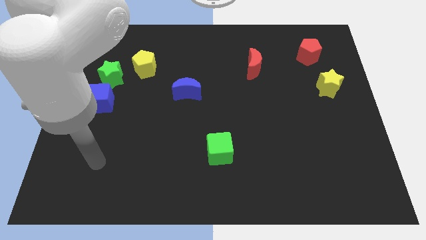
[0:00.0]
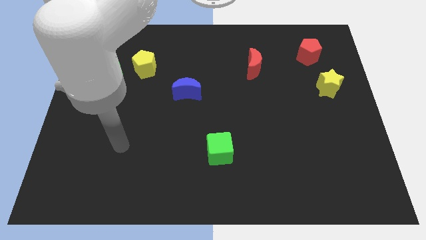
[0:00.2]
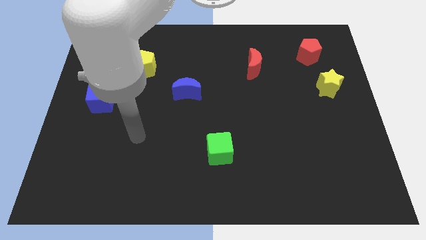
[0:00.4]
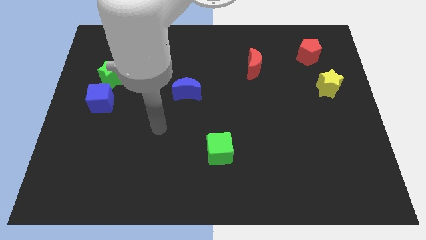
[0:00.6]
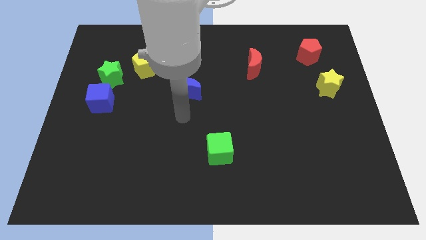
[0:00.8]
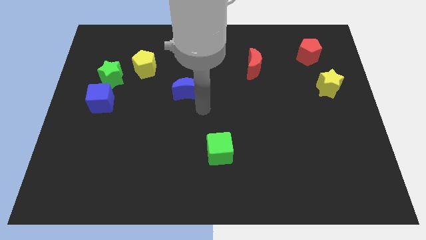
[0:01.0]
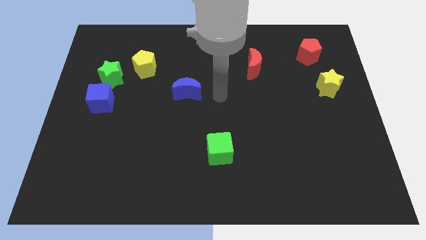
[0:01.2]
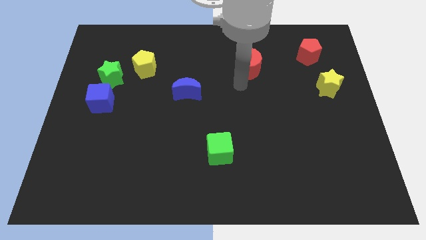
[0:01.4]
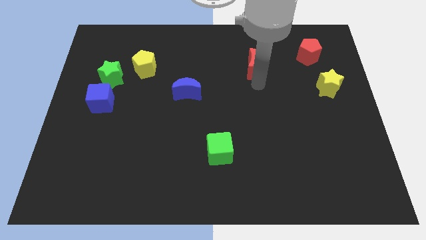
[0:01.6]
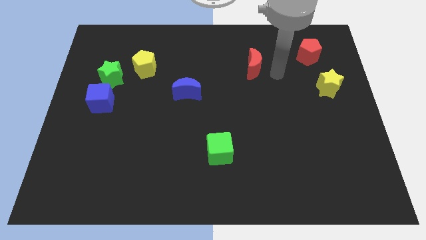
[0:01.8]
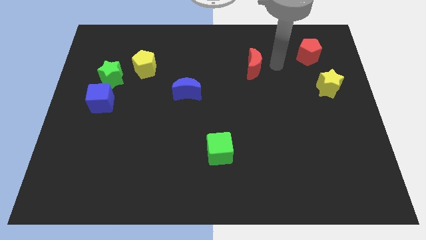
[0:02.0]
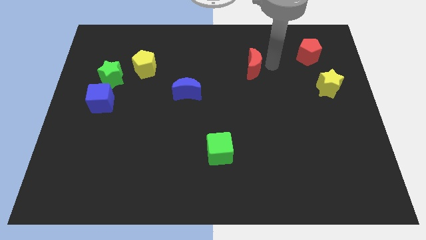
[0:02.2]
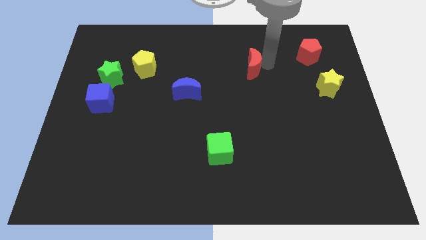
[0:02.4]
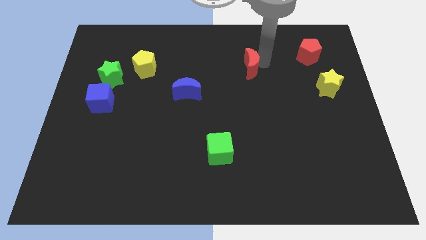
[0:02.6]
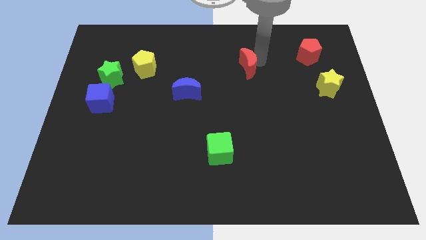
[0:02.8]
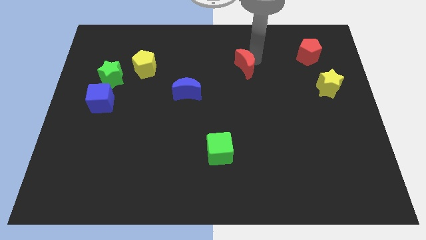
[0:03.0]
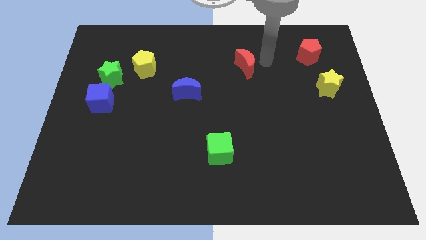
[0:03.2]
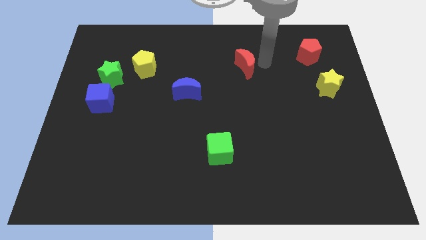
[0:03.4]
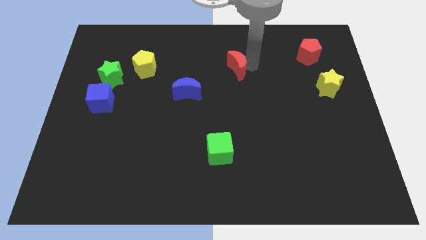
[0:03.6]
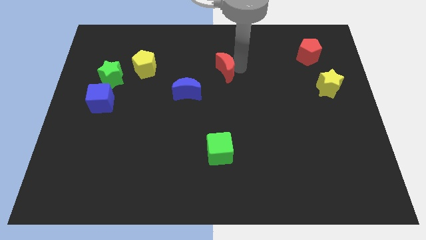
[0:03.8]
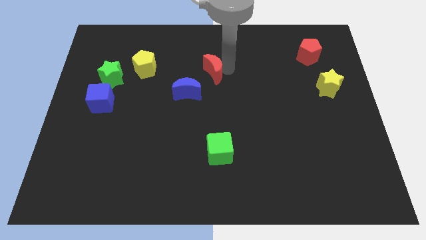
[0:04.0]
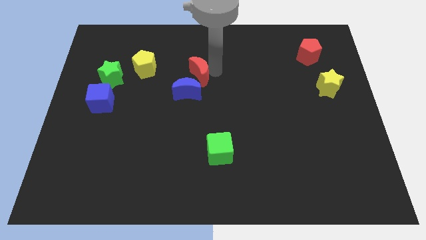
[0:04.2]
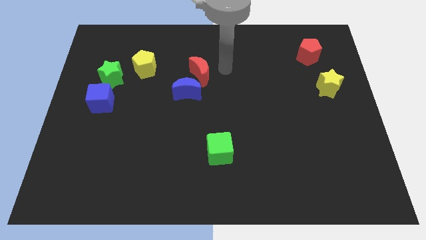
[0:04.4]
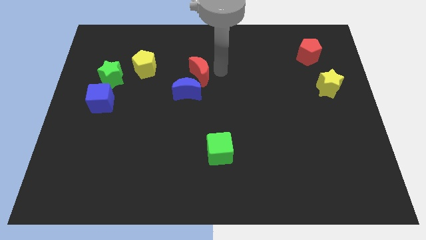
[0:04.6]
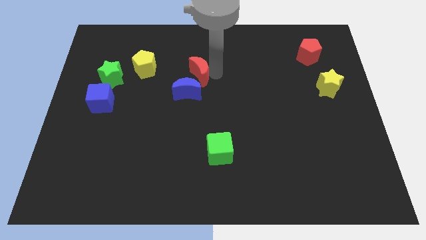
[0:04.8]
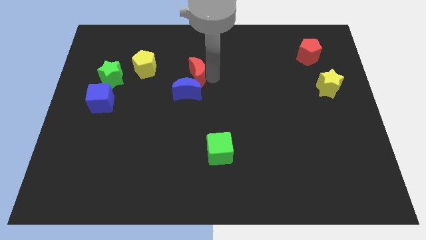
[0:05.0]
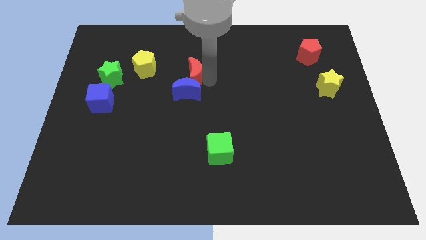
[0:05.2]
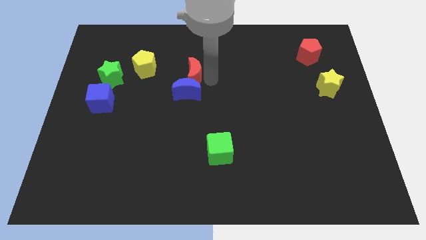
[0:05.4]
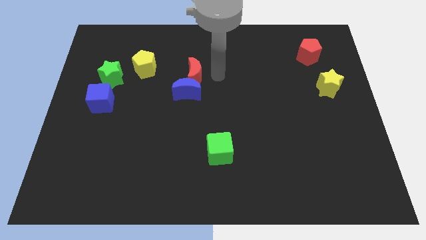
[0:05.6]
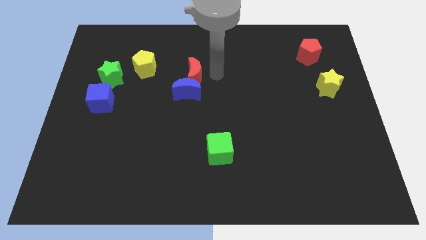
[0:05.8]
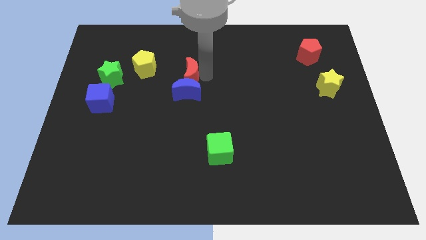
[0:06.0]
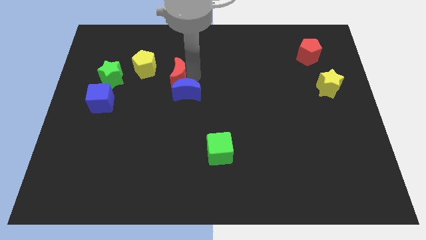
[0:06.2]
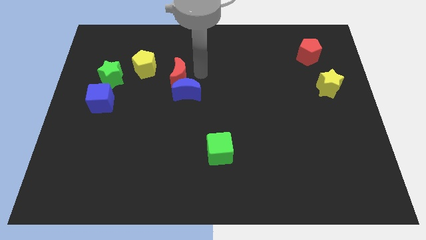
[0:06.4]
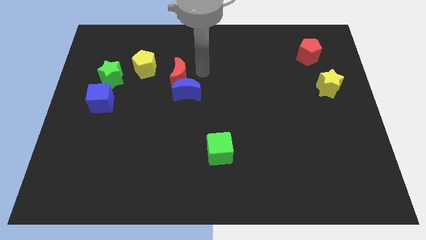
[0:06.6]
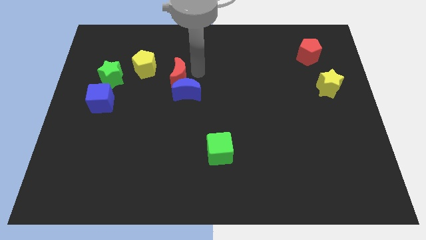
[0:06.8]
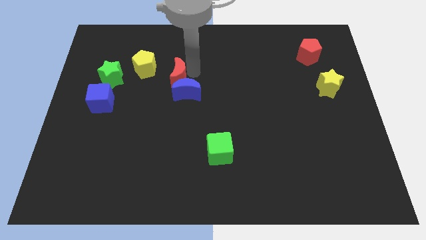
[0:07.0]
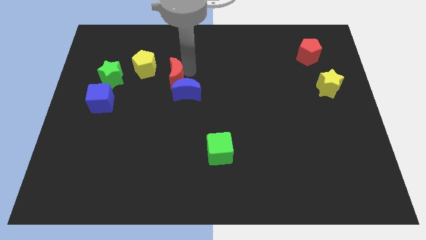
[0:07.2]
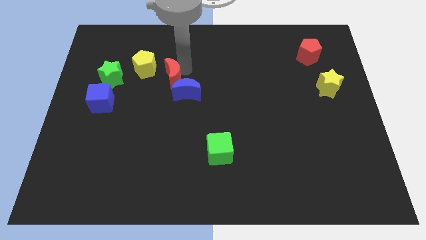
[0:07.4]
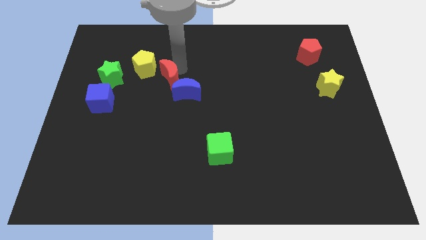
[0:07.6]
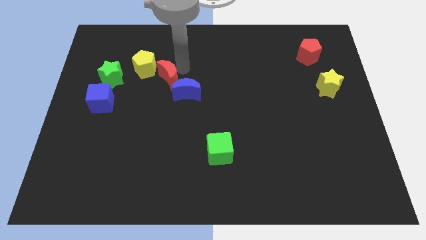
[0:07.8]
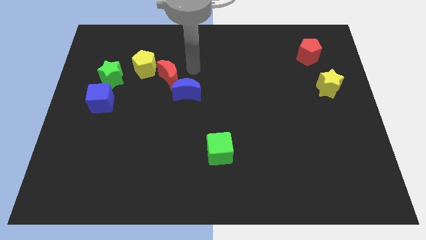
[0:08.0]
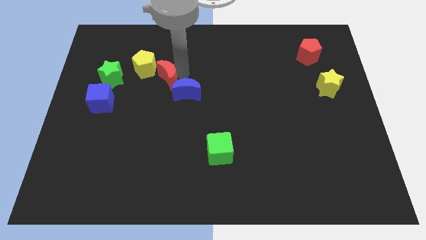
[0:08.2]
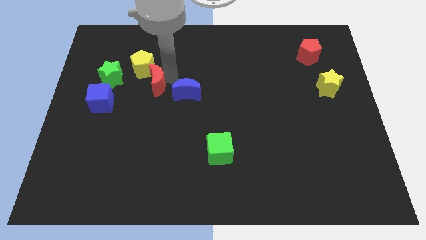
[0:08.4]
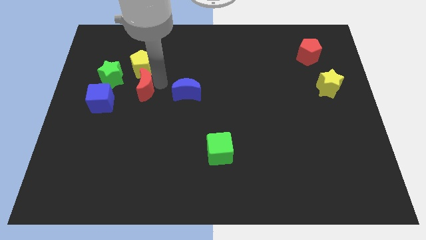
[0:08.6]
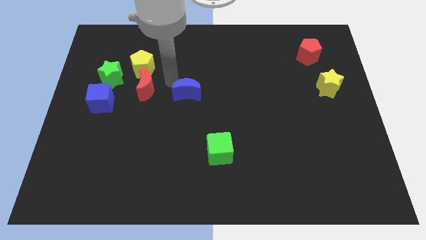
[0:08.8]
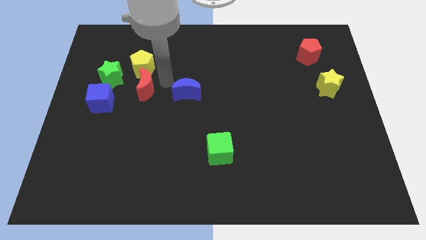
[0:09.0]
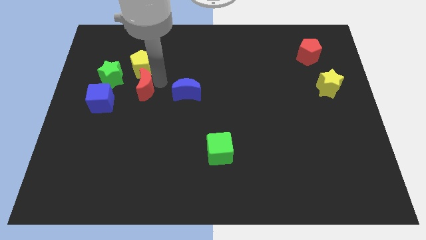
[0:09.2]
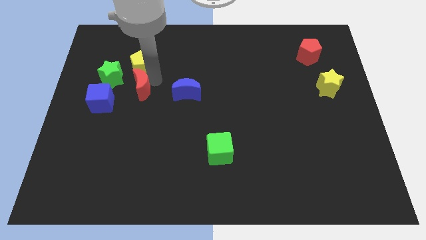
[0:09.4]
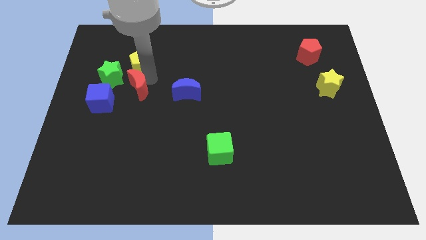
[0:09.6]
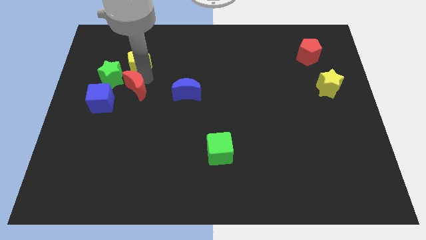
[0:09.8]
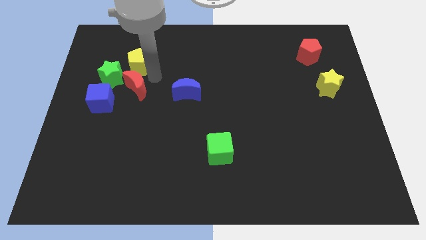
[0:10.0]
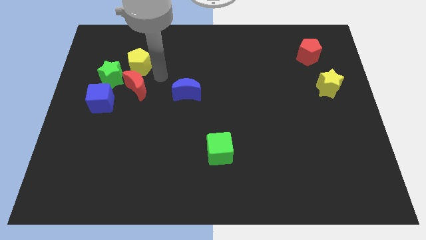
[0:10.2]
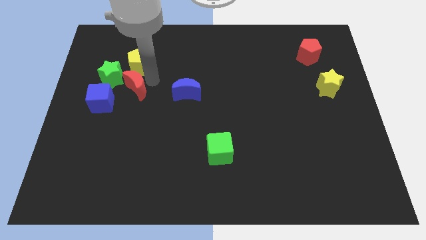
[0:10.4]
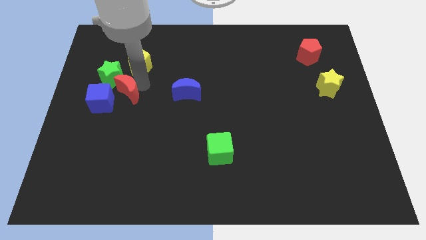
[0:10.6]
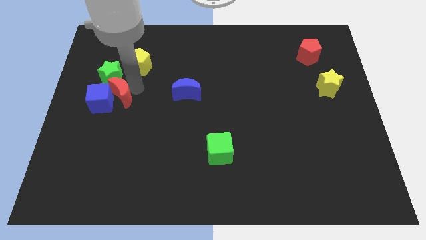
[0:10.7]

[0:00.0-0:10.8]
move the red moon to the blue cube

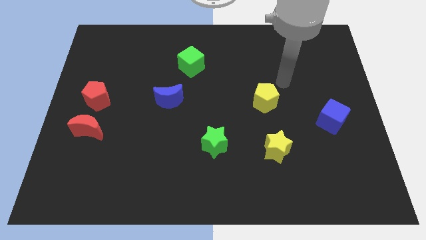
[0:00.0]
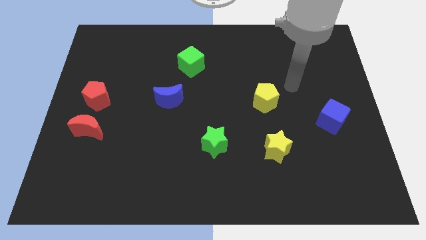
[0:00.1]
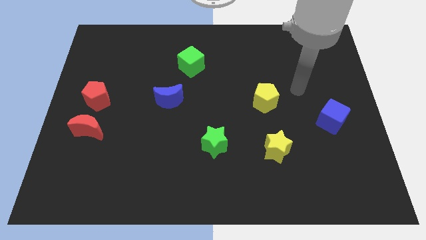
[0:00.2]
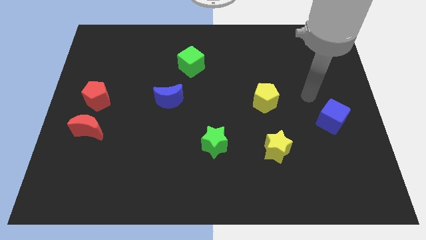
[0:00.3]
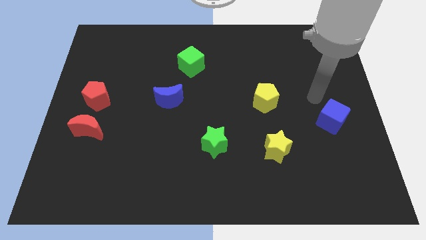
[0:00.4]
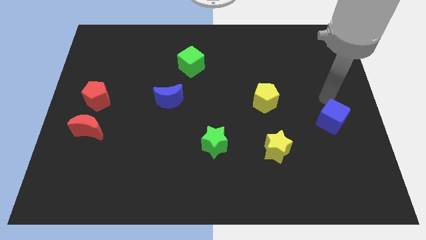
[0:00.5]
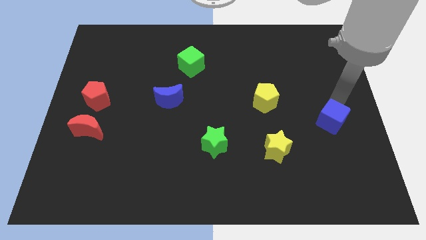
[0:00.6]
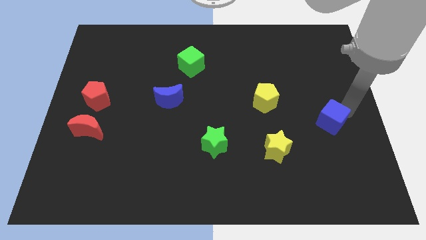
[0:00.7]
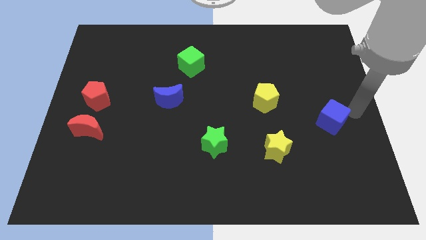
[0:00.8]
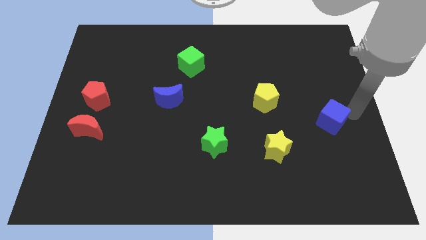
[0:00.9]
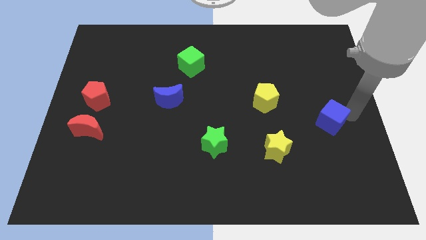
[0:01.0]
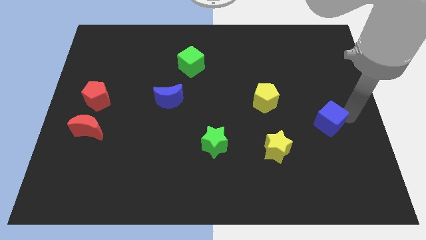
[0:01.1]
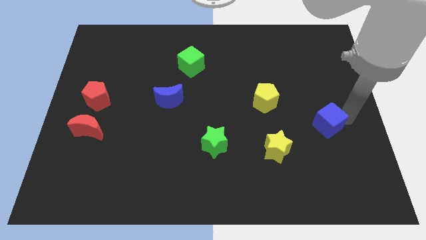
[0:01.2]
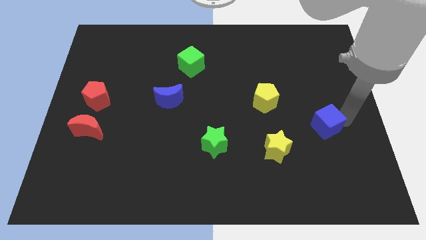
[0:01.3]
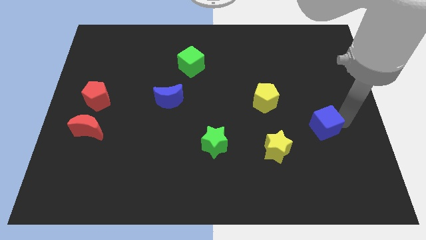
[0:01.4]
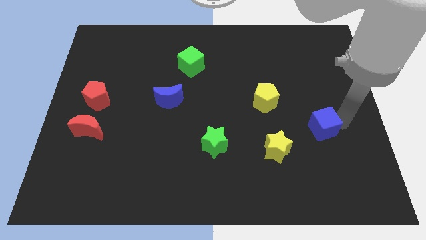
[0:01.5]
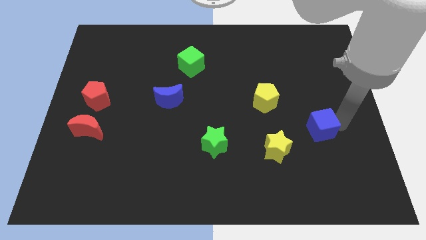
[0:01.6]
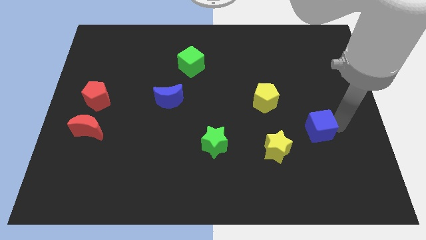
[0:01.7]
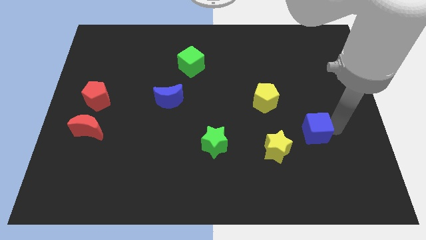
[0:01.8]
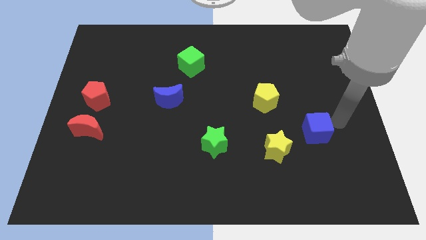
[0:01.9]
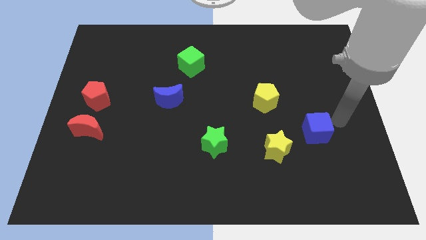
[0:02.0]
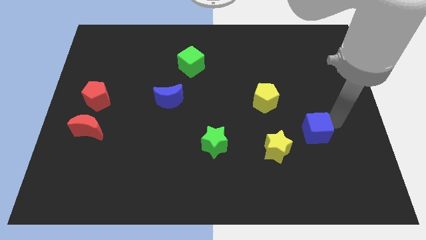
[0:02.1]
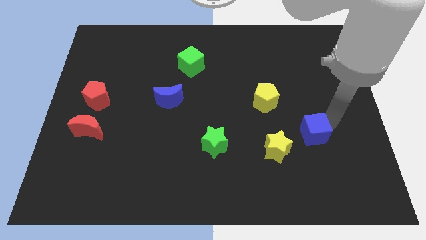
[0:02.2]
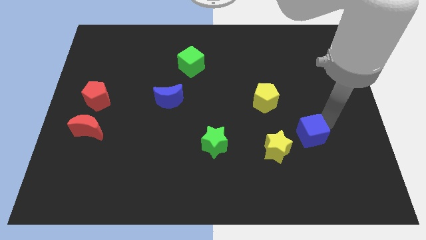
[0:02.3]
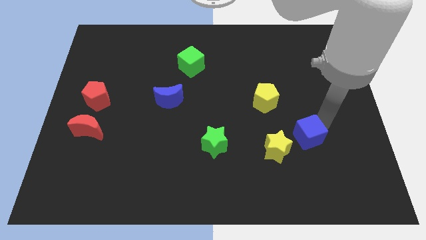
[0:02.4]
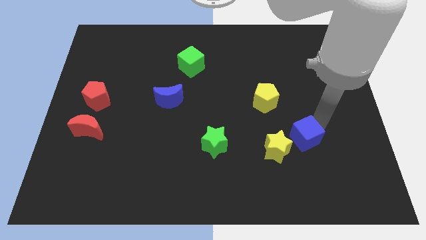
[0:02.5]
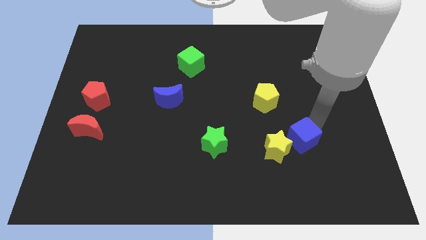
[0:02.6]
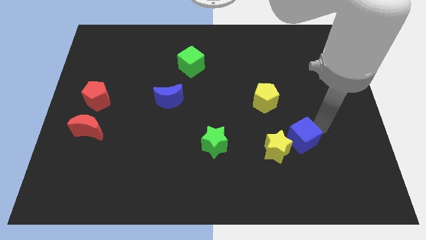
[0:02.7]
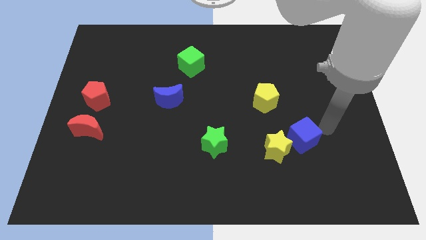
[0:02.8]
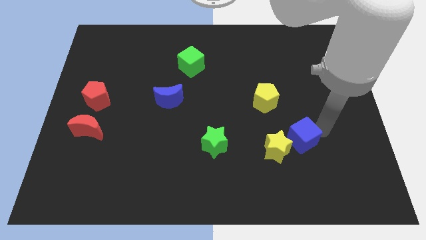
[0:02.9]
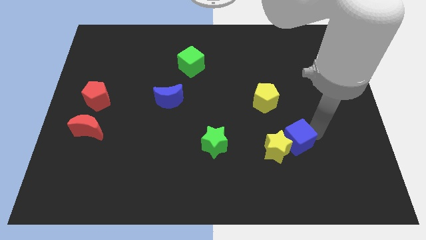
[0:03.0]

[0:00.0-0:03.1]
push the blue cube towards the yellow star
